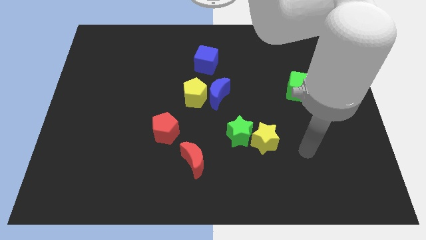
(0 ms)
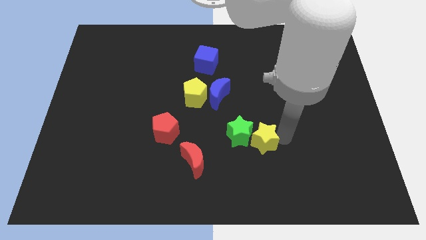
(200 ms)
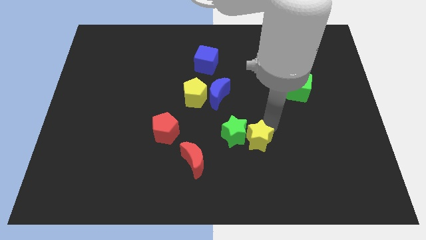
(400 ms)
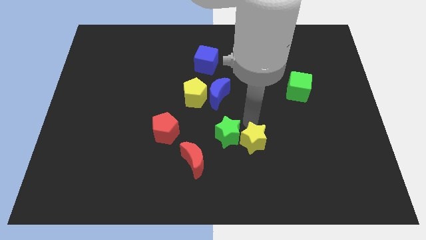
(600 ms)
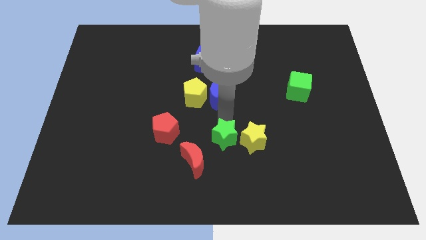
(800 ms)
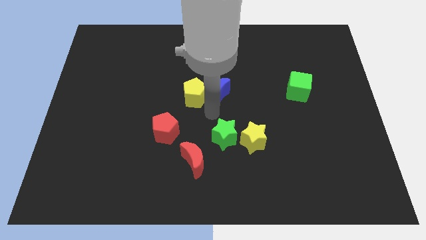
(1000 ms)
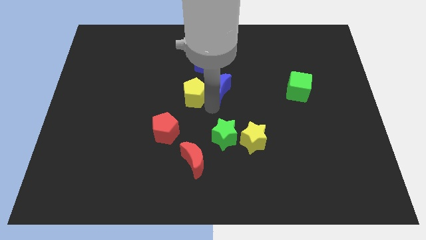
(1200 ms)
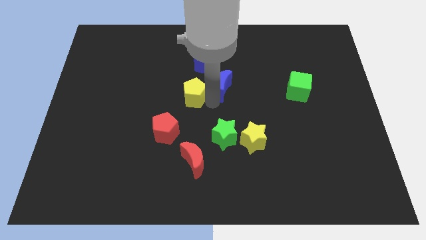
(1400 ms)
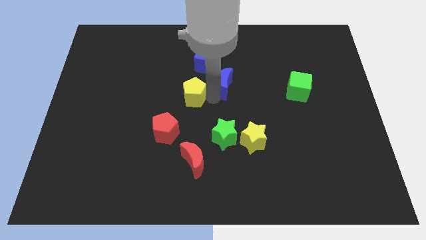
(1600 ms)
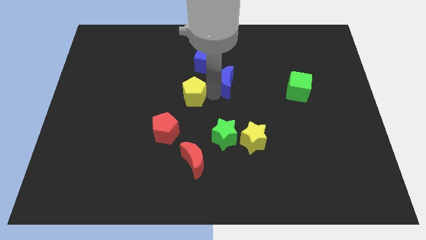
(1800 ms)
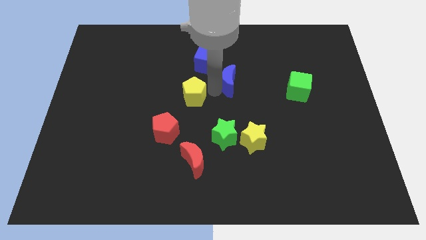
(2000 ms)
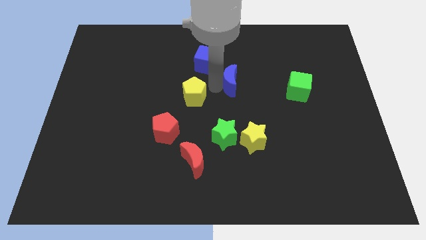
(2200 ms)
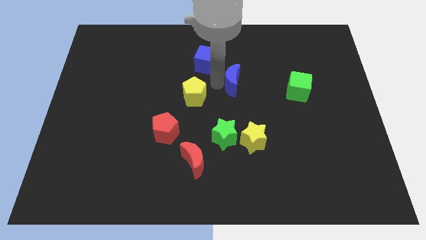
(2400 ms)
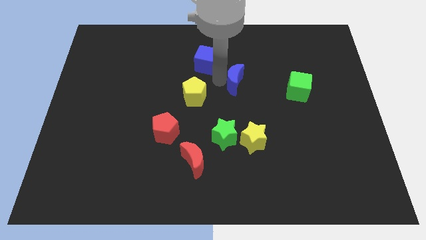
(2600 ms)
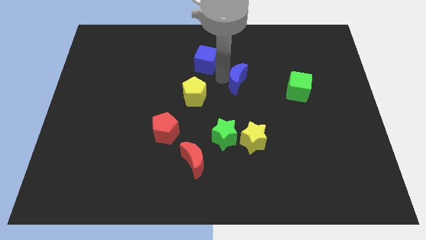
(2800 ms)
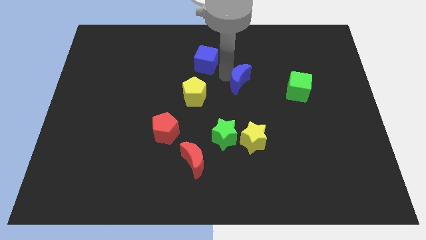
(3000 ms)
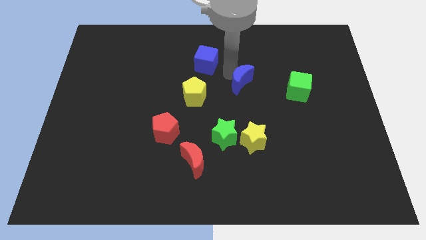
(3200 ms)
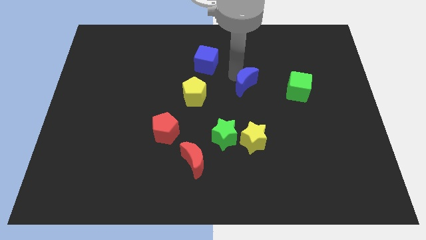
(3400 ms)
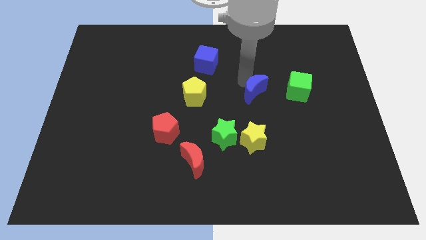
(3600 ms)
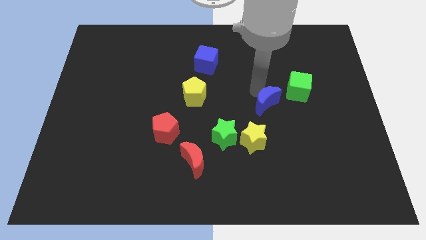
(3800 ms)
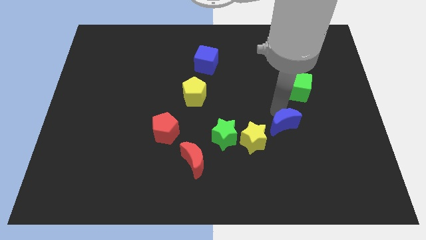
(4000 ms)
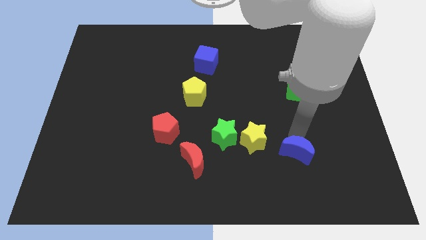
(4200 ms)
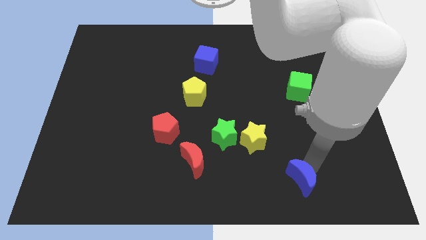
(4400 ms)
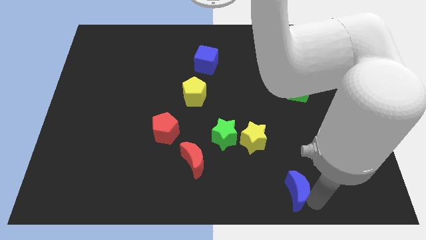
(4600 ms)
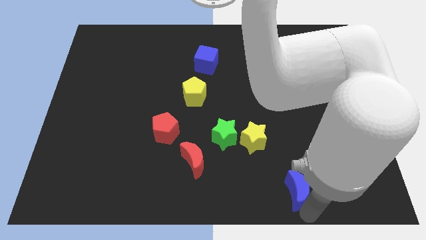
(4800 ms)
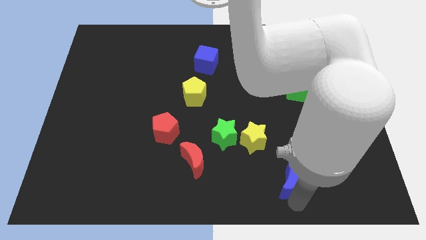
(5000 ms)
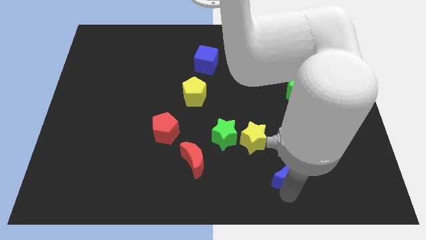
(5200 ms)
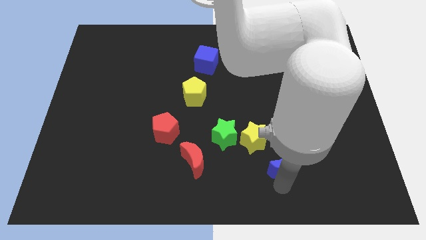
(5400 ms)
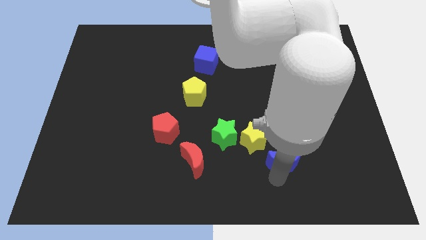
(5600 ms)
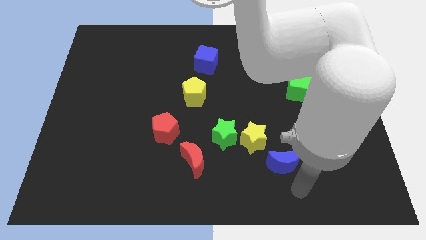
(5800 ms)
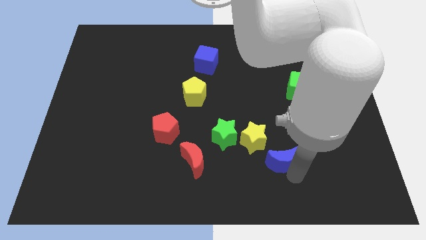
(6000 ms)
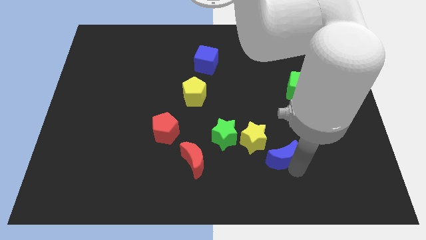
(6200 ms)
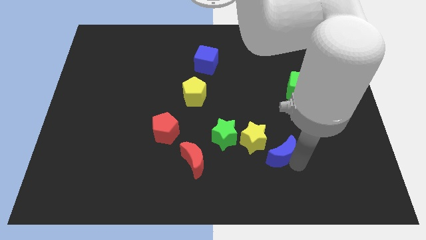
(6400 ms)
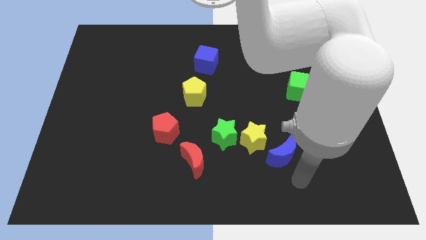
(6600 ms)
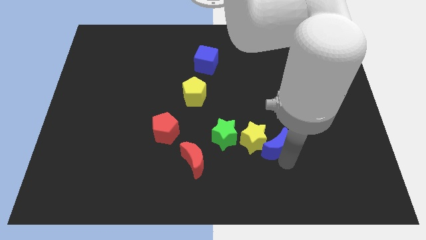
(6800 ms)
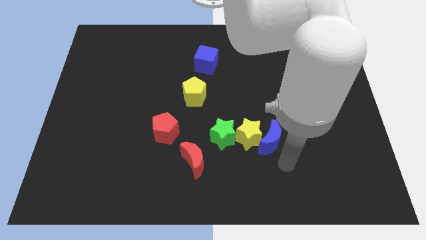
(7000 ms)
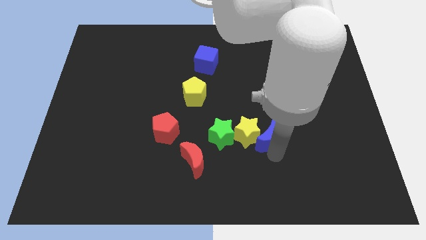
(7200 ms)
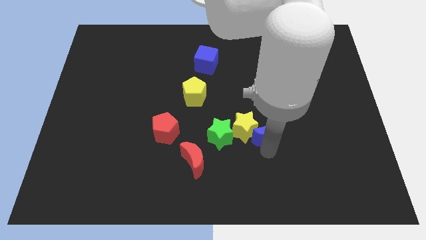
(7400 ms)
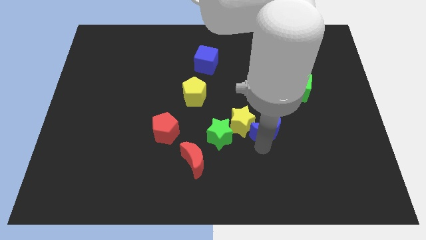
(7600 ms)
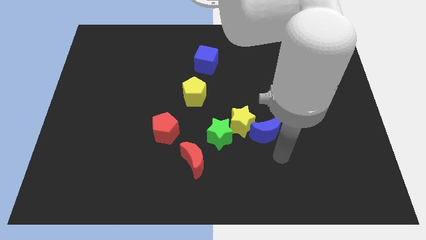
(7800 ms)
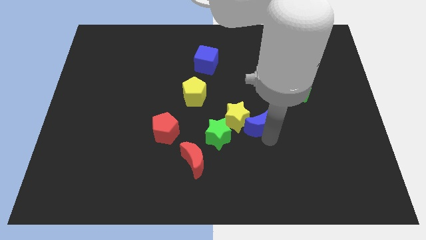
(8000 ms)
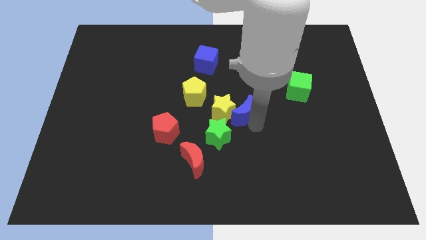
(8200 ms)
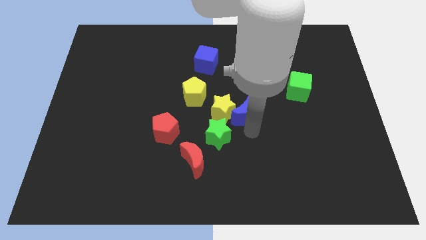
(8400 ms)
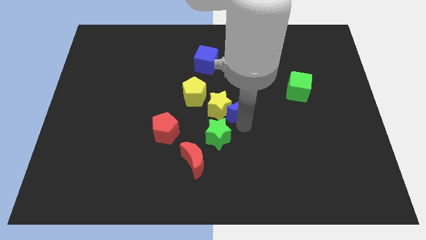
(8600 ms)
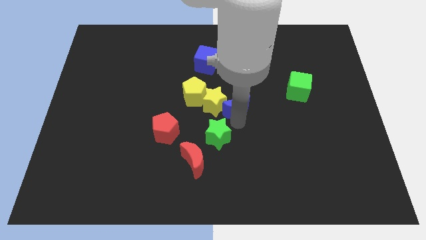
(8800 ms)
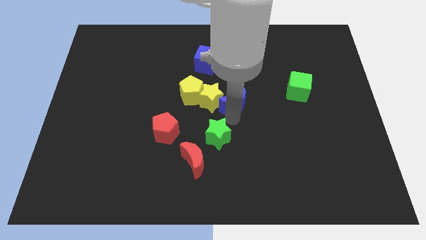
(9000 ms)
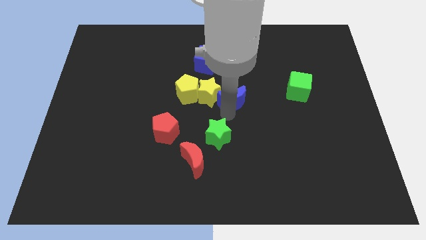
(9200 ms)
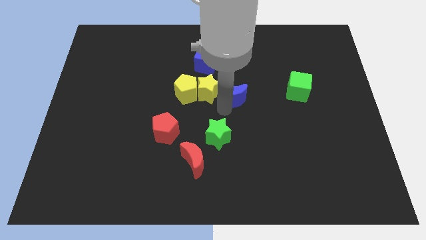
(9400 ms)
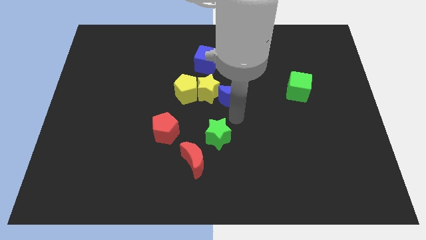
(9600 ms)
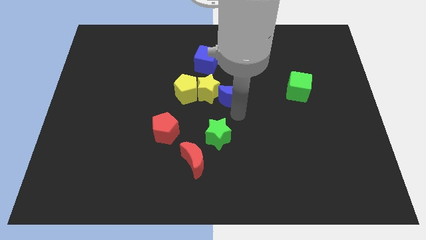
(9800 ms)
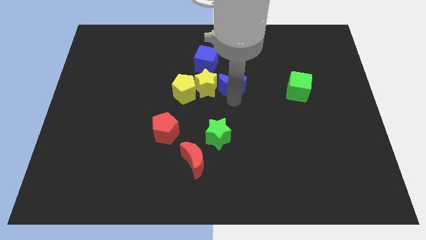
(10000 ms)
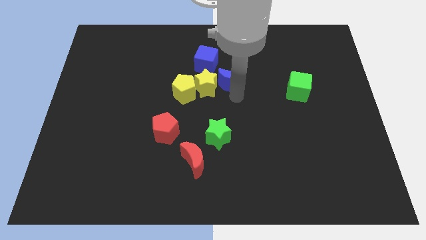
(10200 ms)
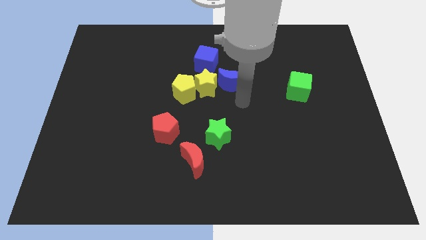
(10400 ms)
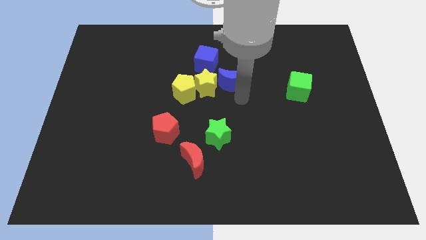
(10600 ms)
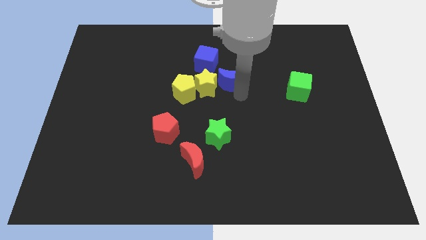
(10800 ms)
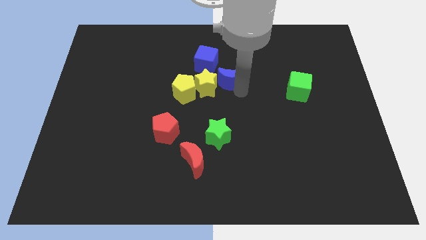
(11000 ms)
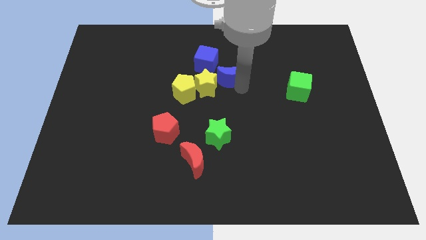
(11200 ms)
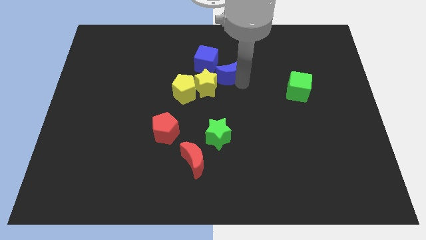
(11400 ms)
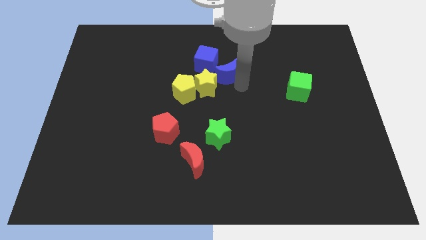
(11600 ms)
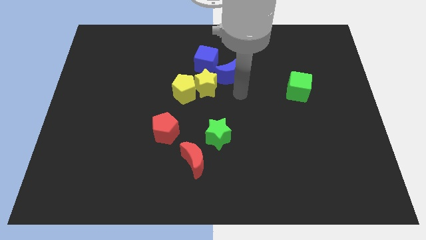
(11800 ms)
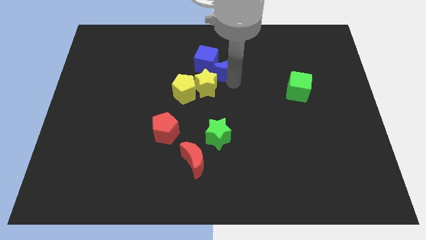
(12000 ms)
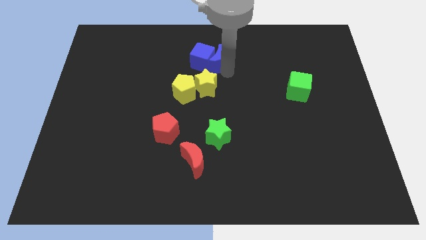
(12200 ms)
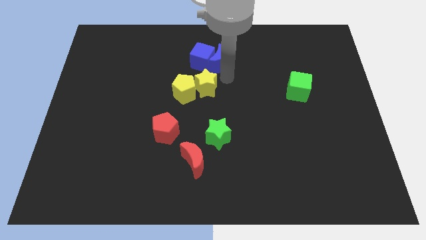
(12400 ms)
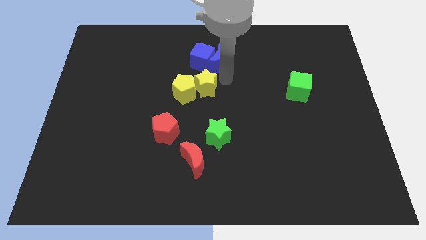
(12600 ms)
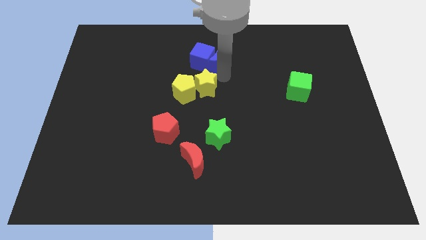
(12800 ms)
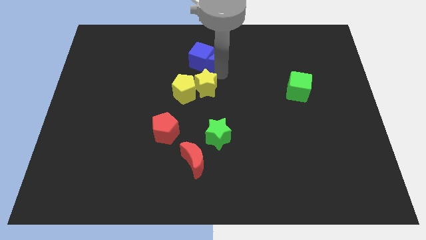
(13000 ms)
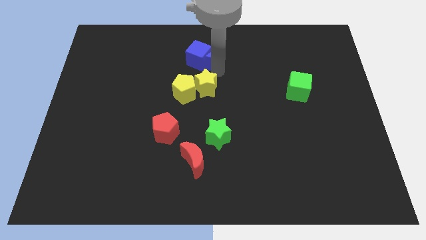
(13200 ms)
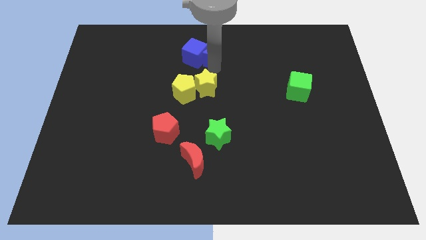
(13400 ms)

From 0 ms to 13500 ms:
move the blue moon to the top side
